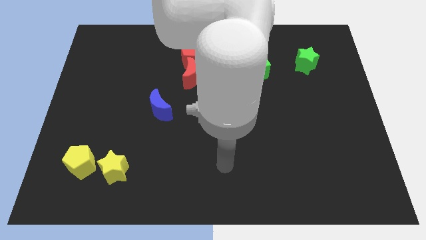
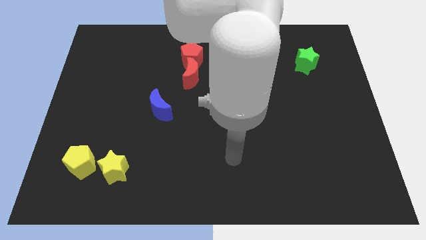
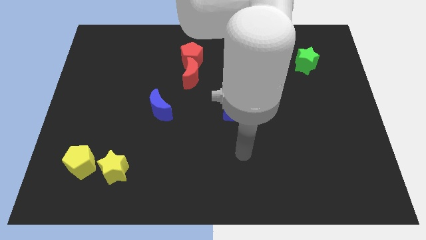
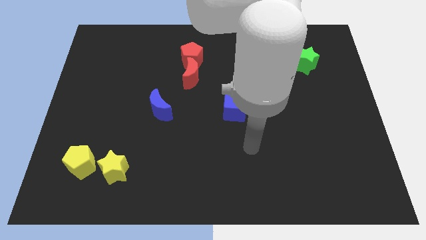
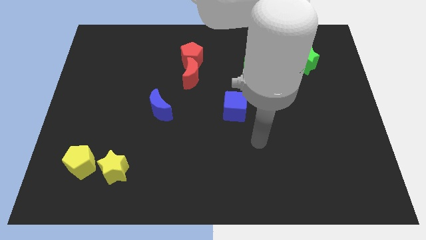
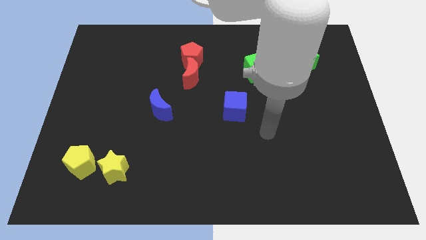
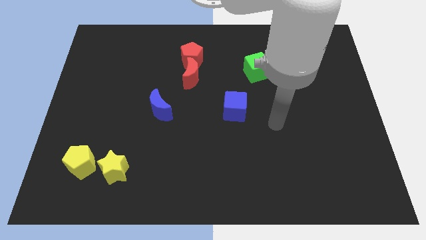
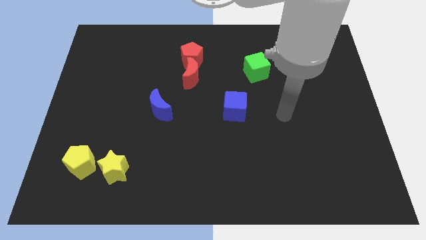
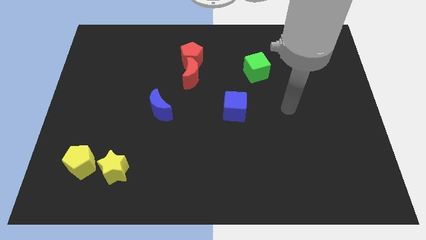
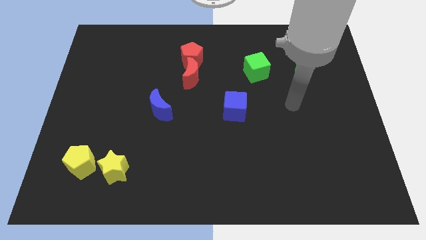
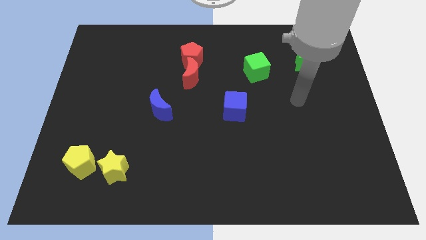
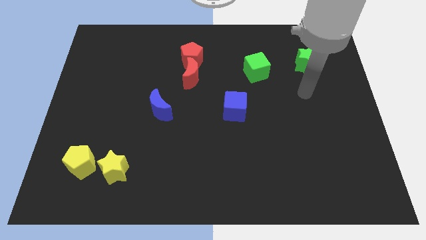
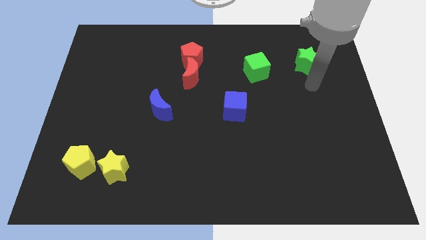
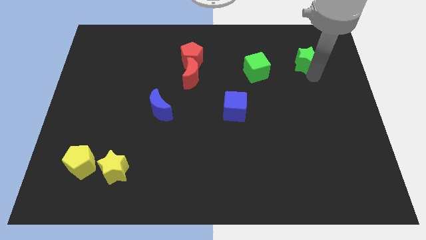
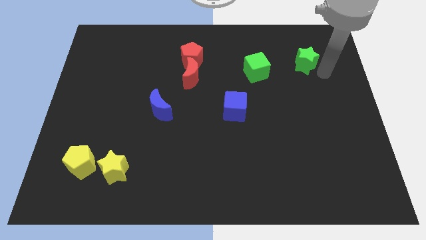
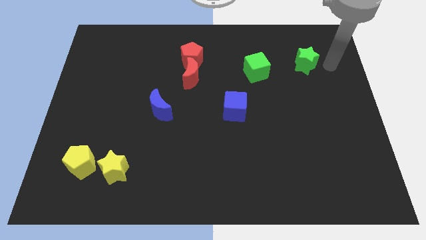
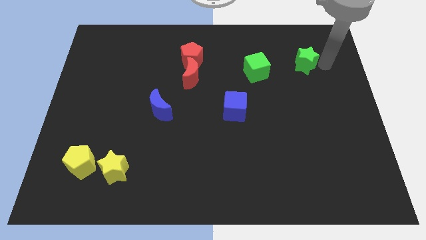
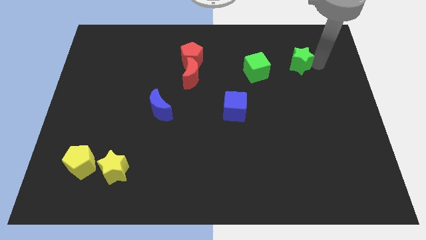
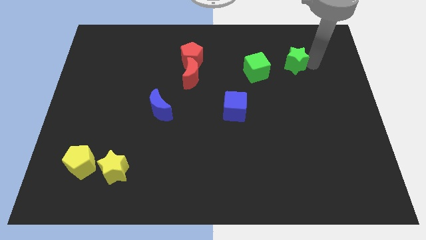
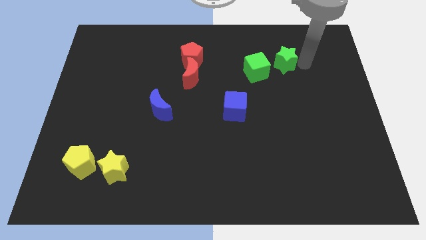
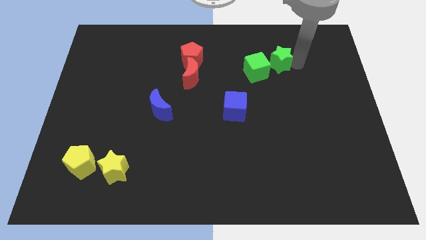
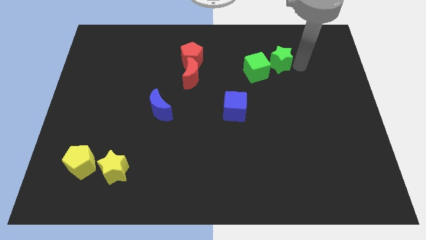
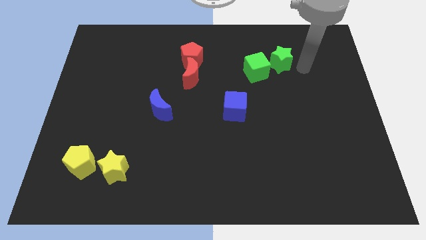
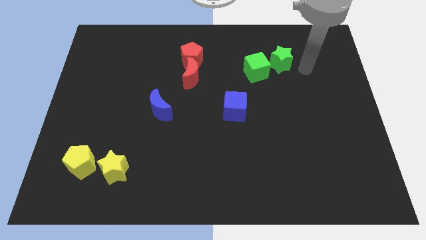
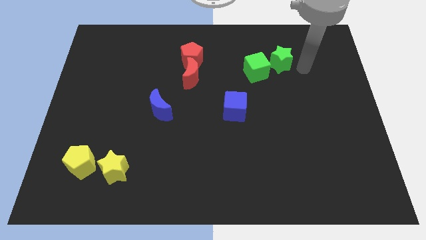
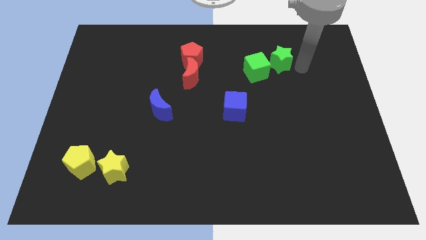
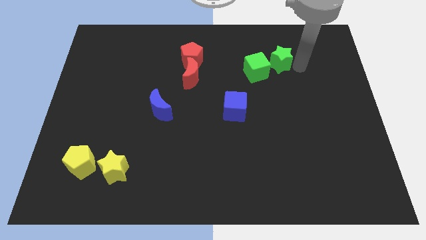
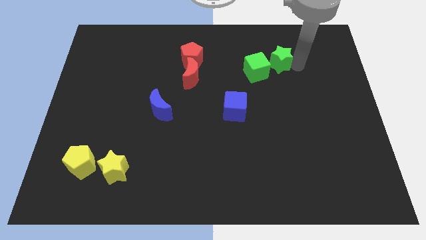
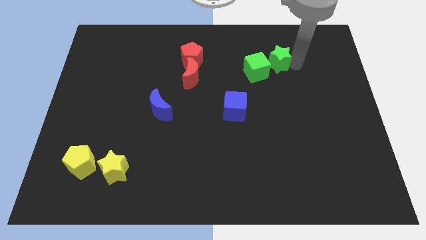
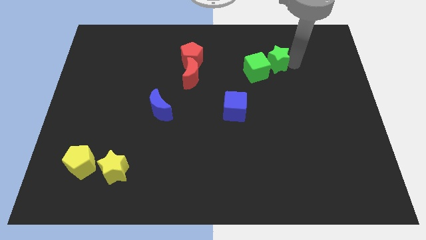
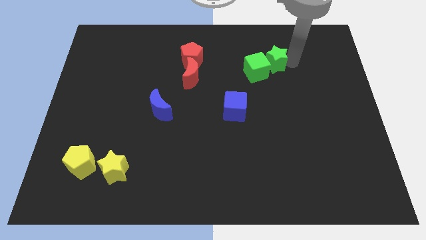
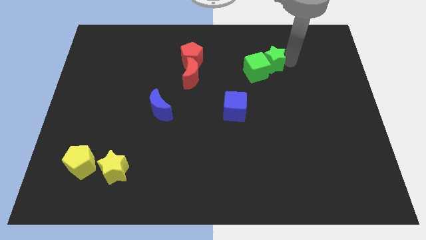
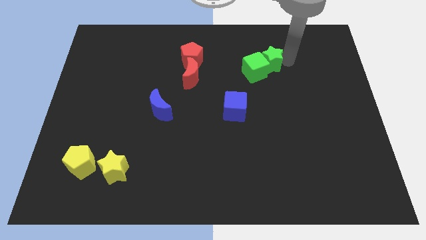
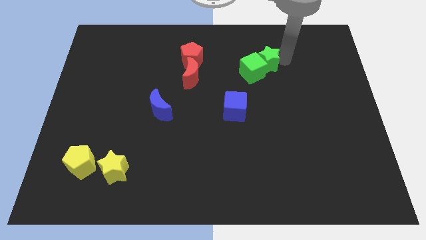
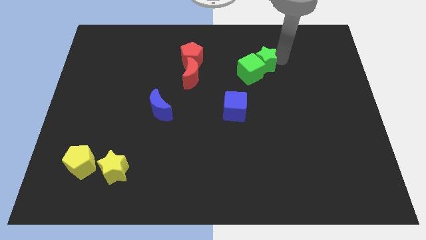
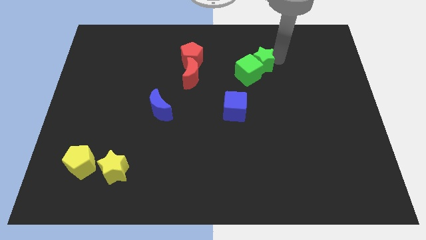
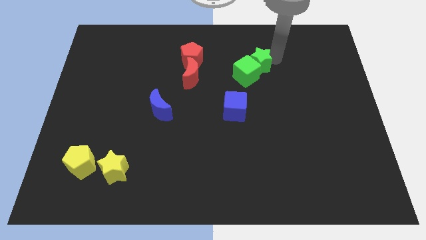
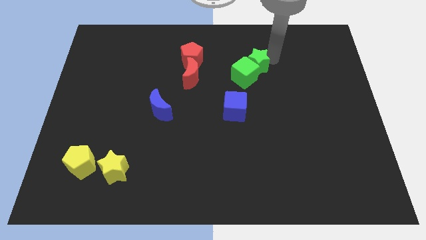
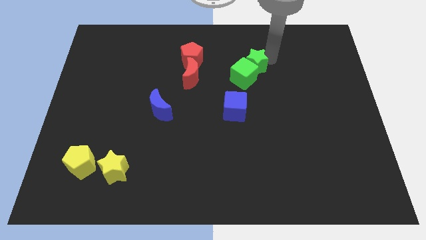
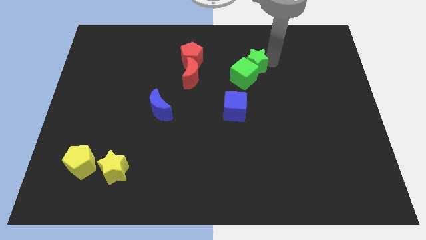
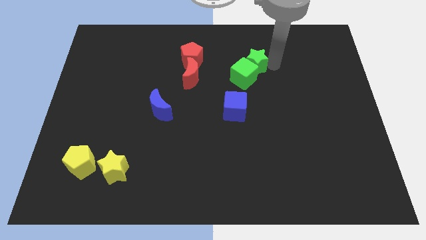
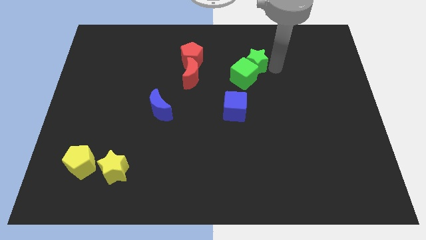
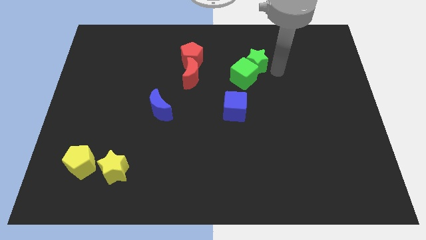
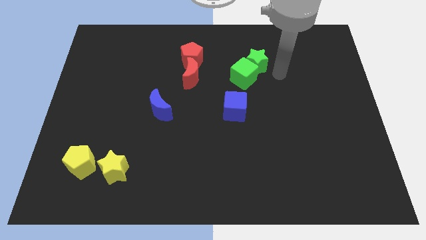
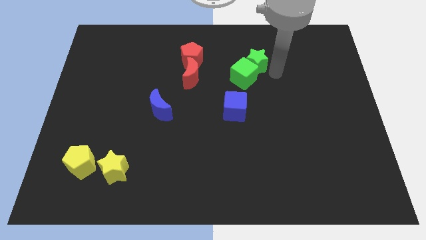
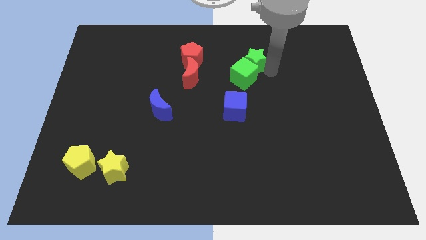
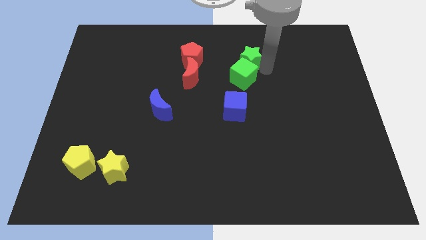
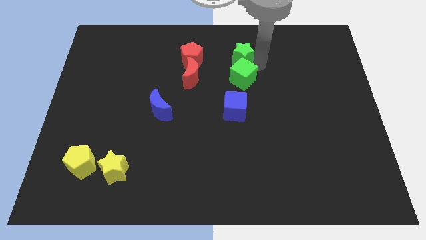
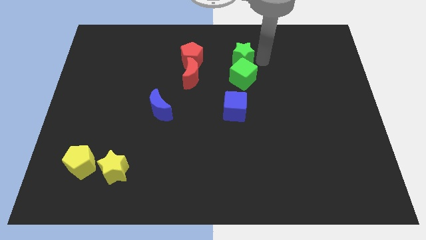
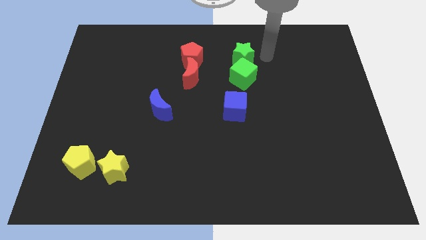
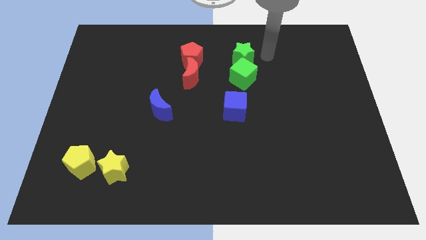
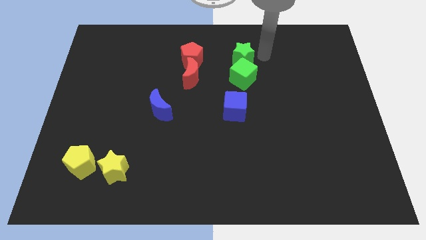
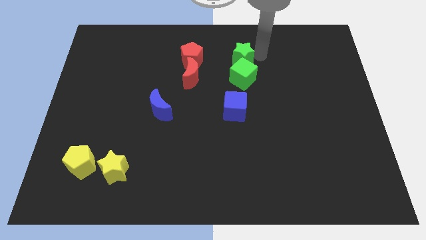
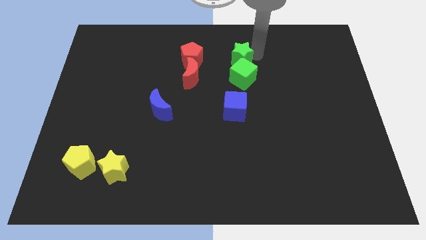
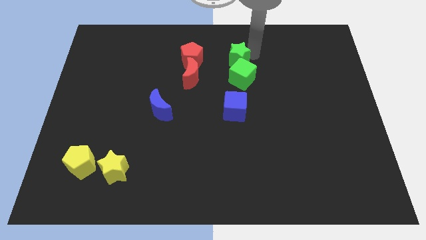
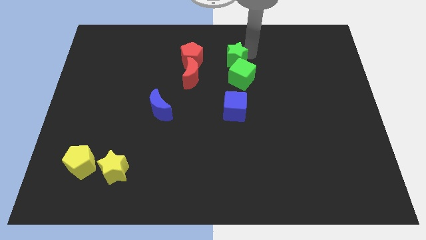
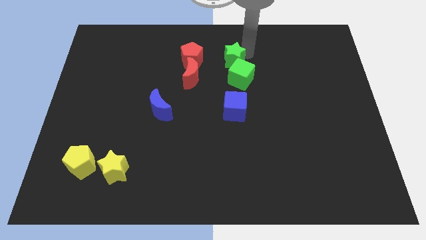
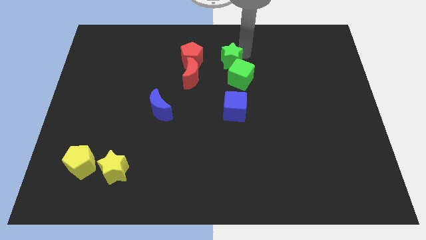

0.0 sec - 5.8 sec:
move the green star to the top right of the red moon
